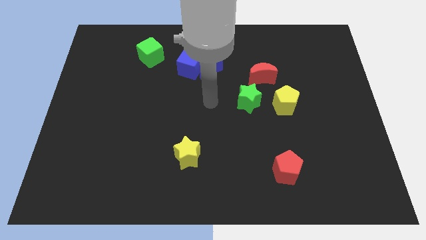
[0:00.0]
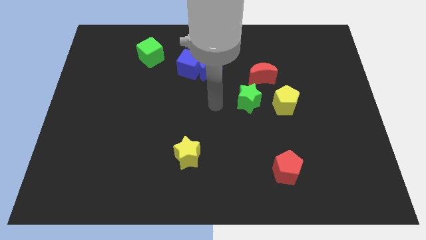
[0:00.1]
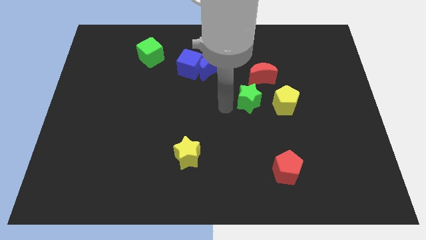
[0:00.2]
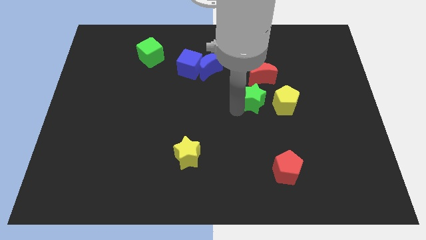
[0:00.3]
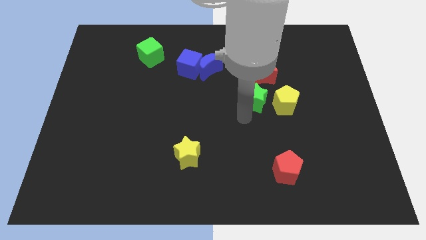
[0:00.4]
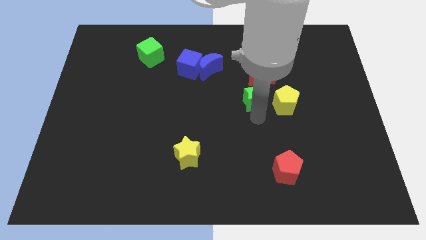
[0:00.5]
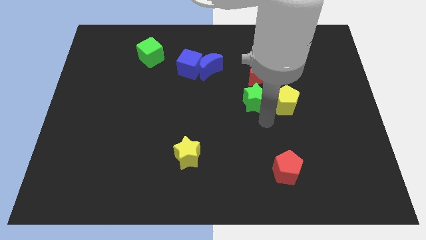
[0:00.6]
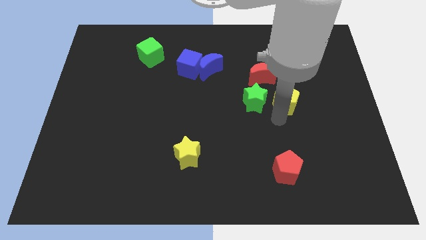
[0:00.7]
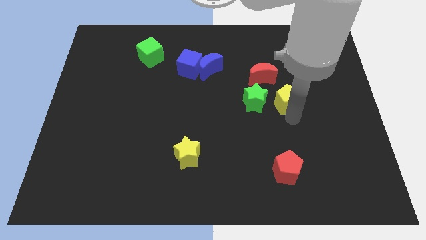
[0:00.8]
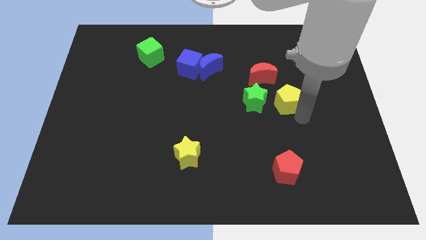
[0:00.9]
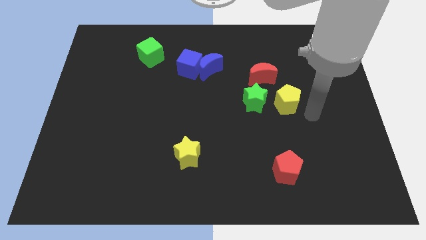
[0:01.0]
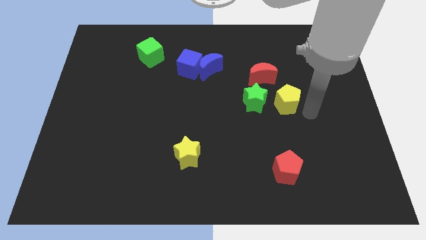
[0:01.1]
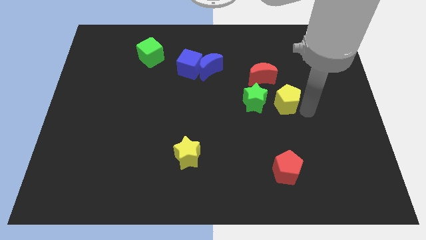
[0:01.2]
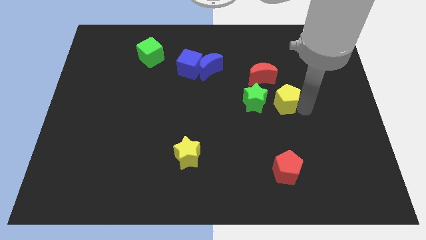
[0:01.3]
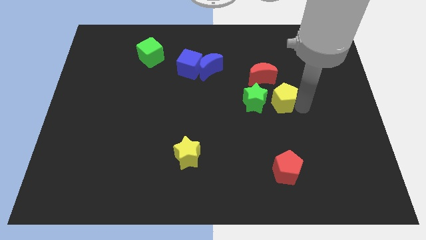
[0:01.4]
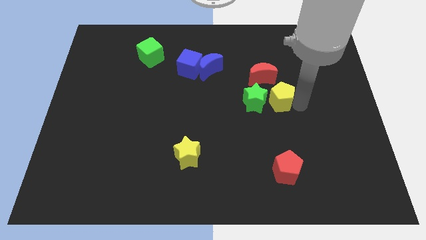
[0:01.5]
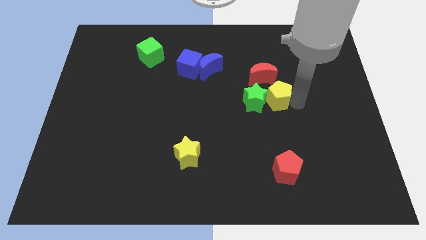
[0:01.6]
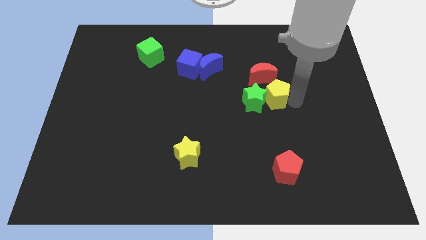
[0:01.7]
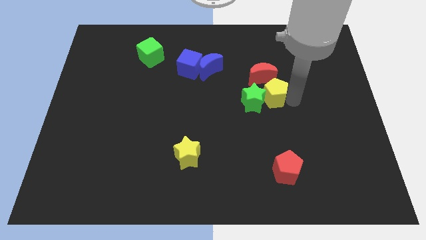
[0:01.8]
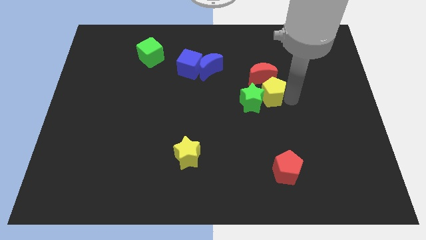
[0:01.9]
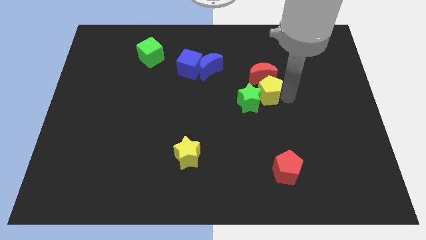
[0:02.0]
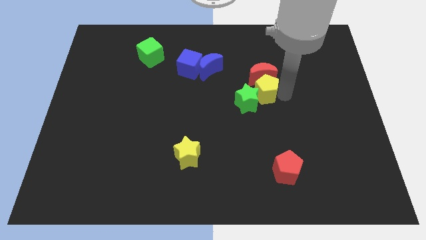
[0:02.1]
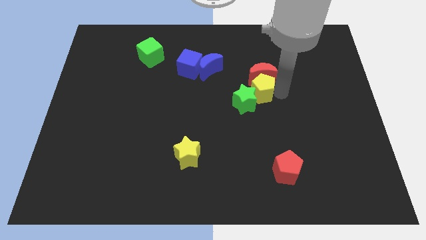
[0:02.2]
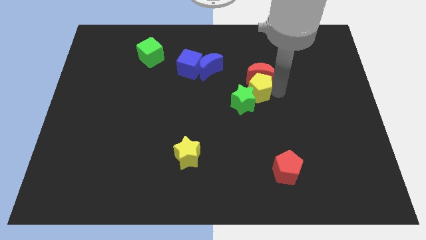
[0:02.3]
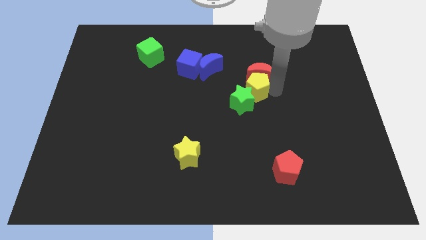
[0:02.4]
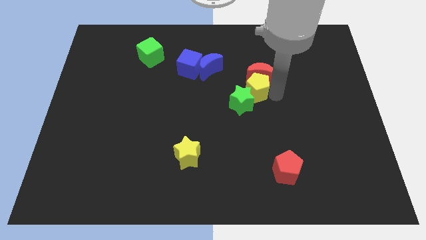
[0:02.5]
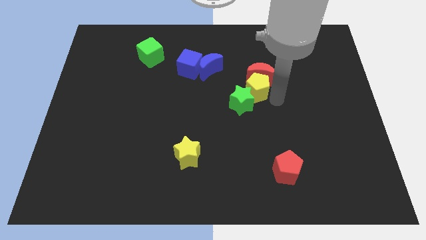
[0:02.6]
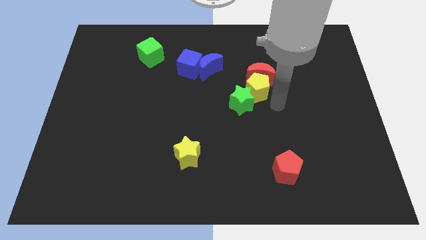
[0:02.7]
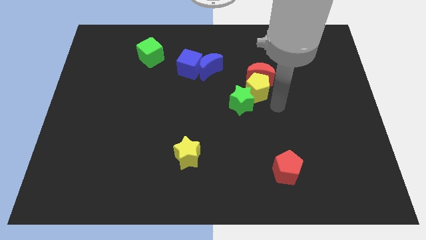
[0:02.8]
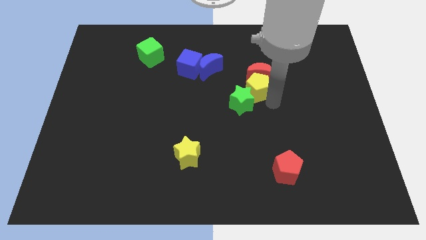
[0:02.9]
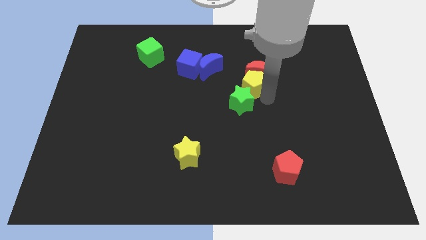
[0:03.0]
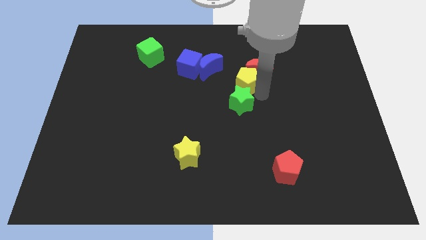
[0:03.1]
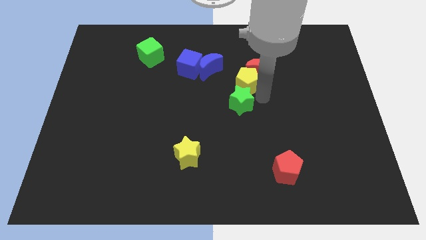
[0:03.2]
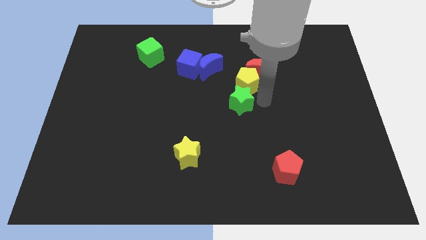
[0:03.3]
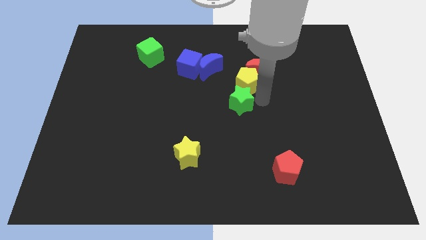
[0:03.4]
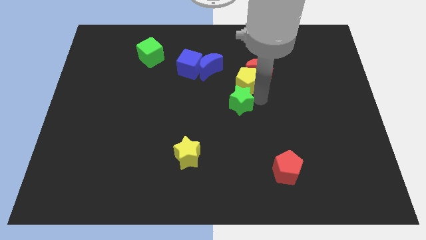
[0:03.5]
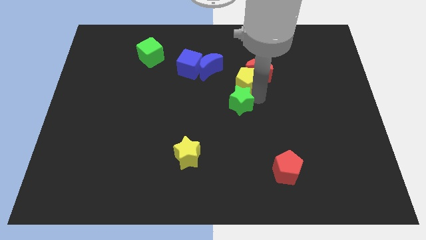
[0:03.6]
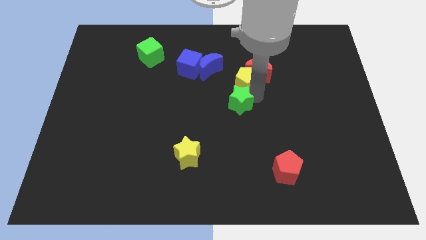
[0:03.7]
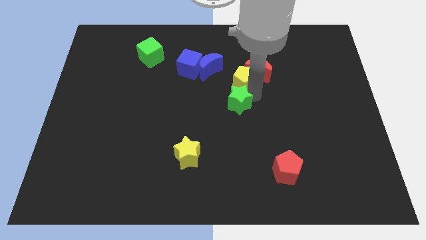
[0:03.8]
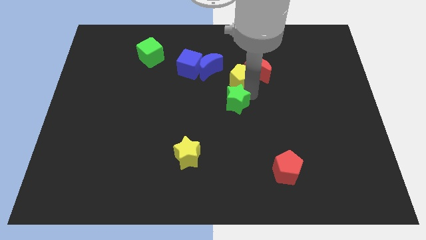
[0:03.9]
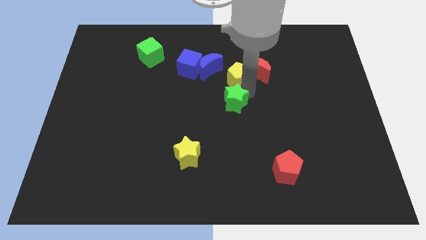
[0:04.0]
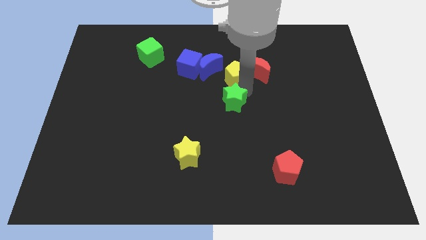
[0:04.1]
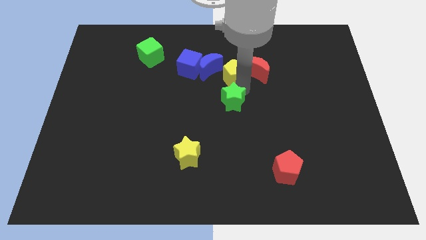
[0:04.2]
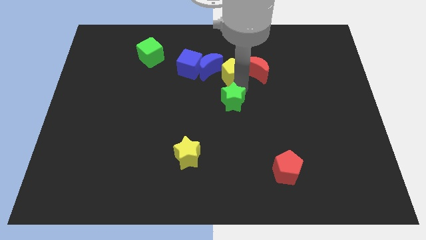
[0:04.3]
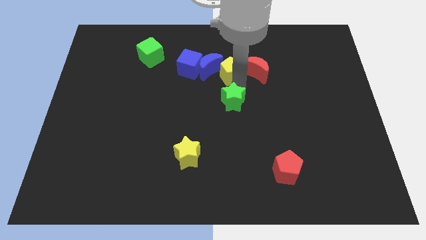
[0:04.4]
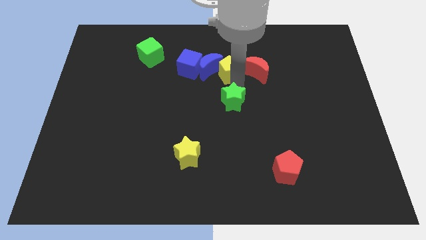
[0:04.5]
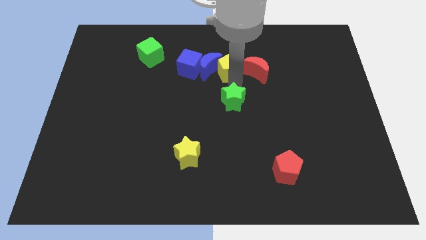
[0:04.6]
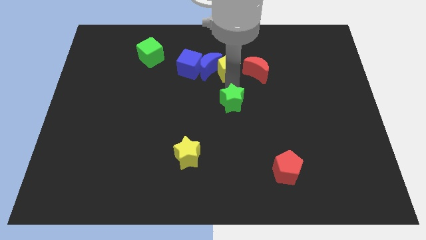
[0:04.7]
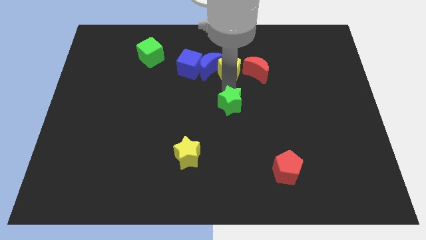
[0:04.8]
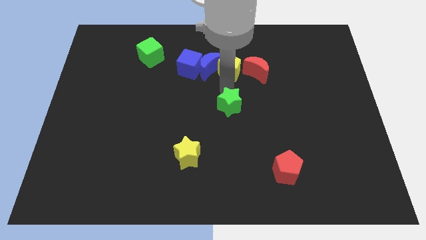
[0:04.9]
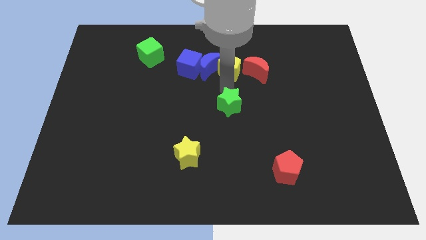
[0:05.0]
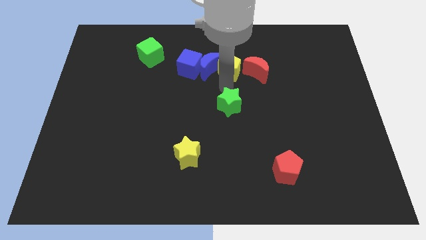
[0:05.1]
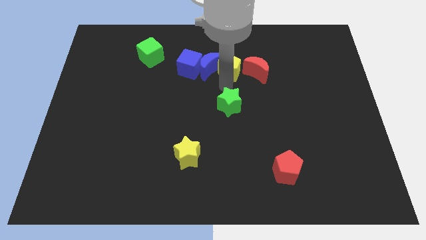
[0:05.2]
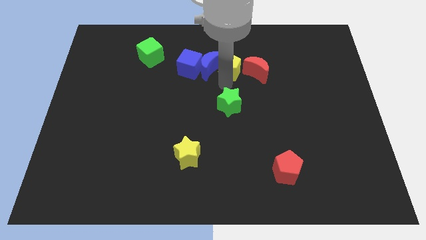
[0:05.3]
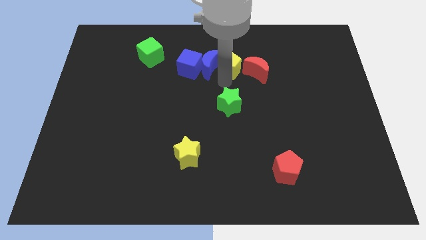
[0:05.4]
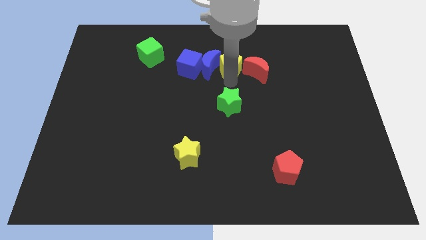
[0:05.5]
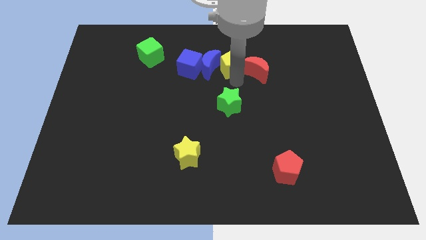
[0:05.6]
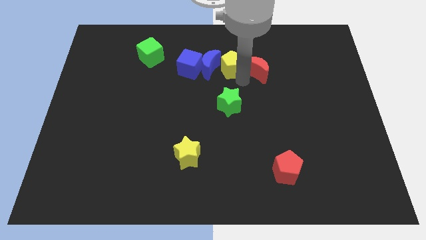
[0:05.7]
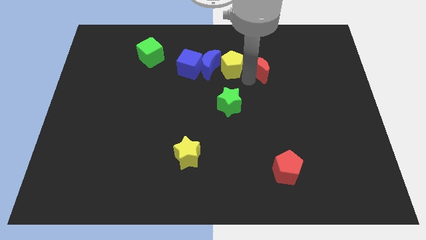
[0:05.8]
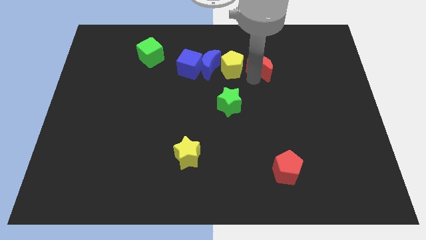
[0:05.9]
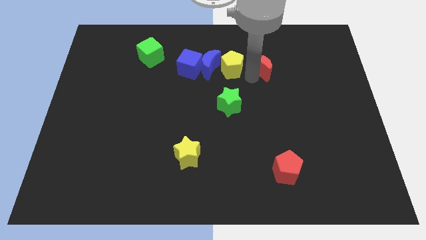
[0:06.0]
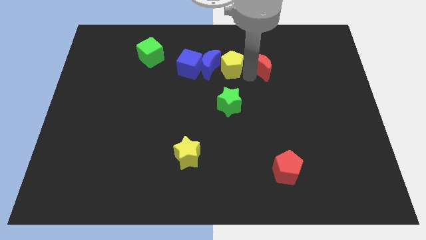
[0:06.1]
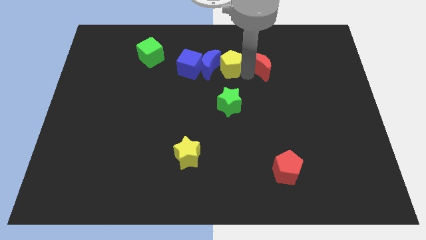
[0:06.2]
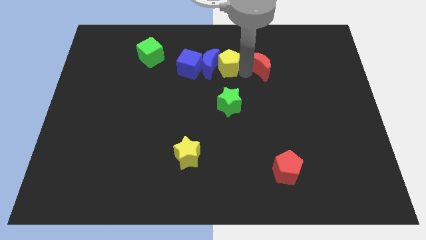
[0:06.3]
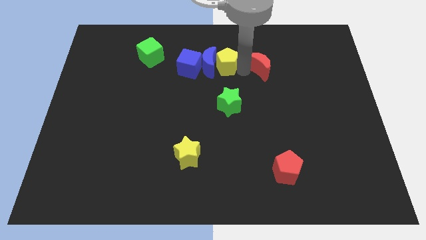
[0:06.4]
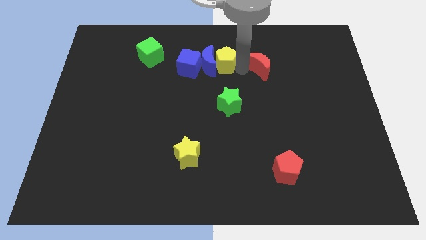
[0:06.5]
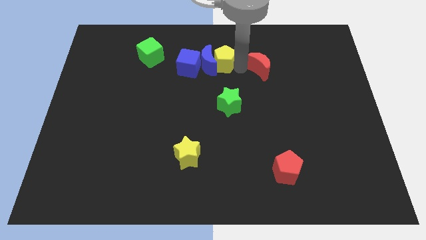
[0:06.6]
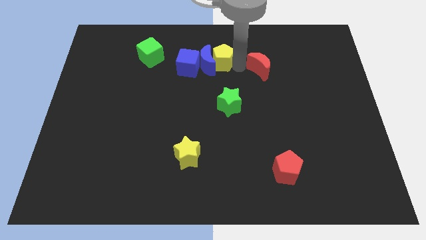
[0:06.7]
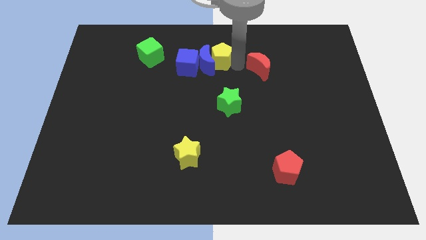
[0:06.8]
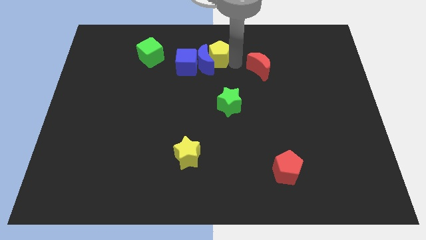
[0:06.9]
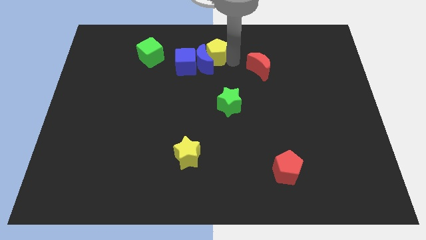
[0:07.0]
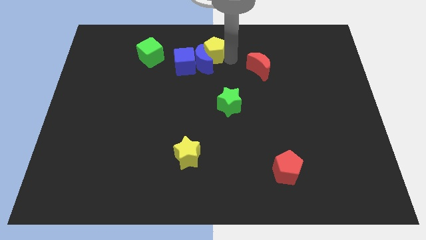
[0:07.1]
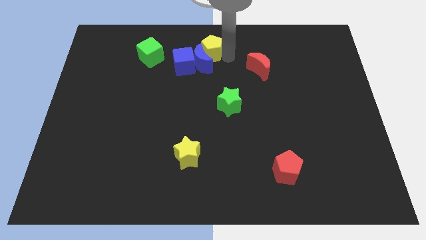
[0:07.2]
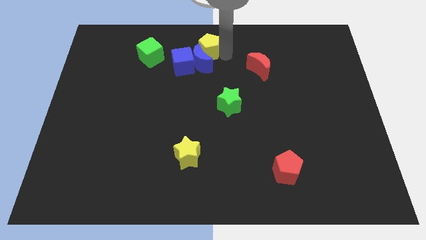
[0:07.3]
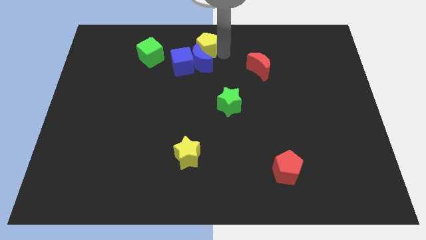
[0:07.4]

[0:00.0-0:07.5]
slide the yellow pentagon to the top left of the blue moon
